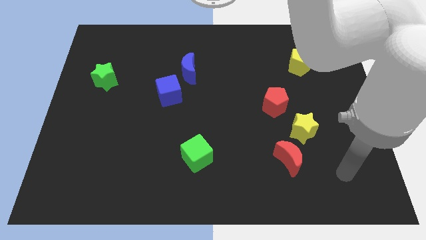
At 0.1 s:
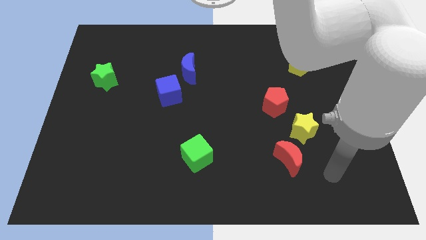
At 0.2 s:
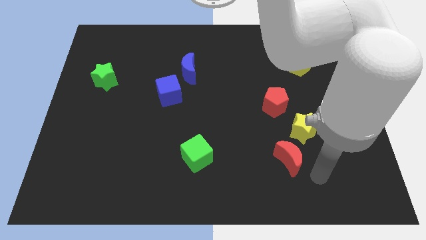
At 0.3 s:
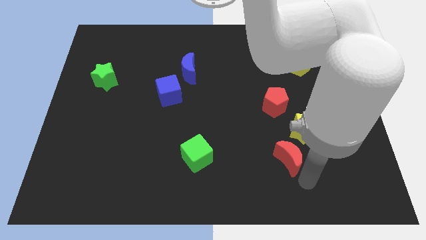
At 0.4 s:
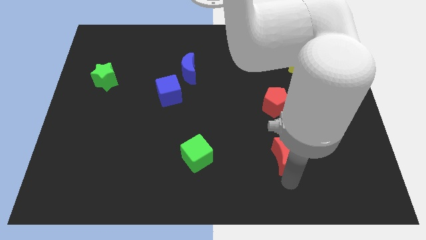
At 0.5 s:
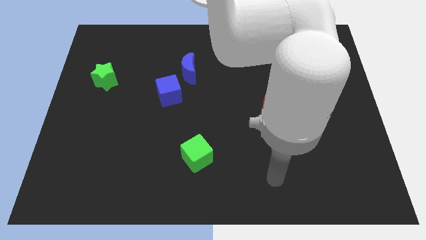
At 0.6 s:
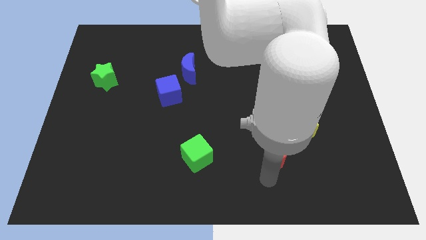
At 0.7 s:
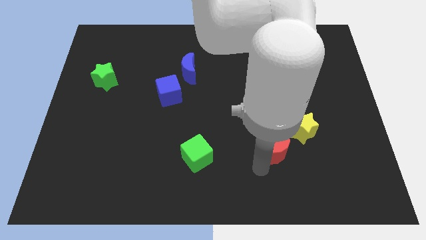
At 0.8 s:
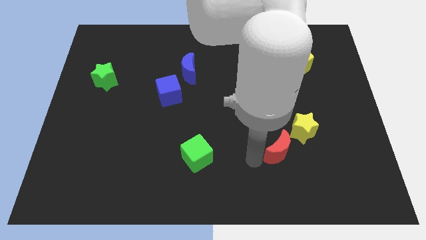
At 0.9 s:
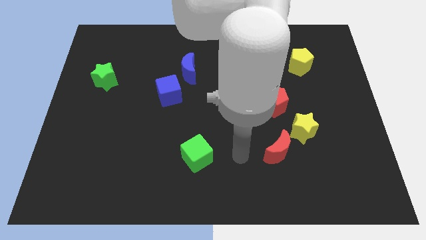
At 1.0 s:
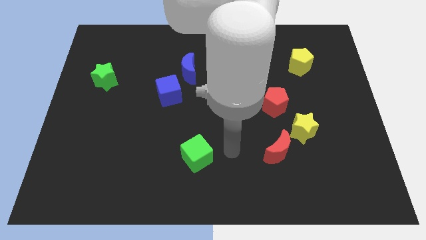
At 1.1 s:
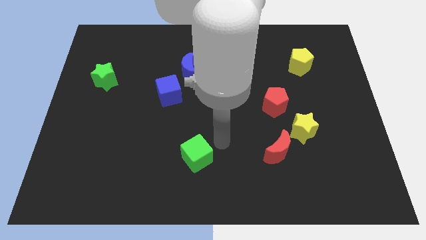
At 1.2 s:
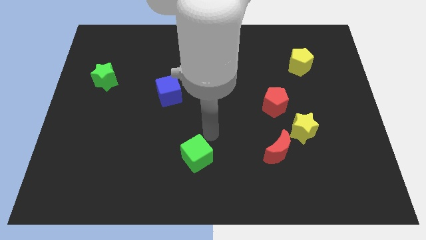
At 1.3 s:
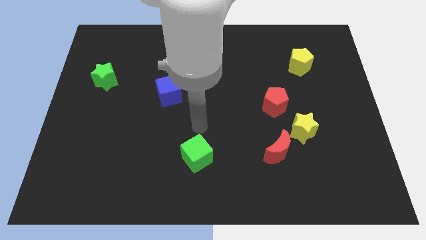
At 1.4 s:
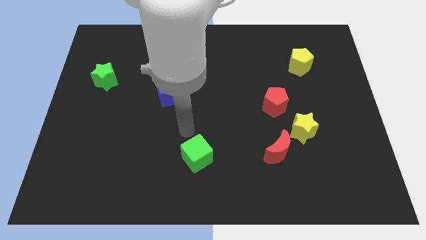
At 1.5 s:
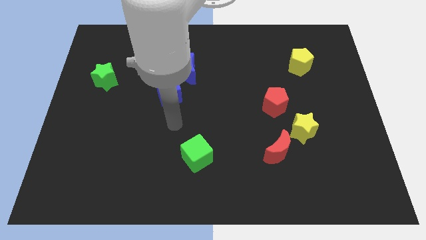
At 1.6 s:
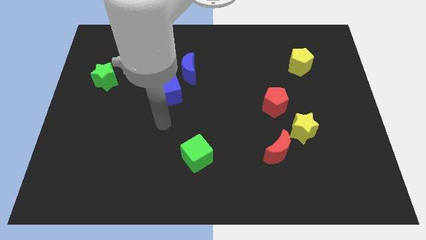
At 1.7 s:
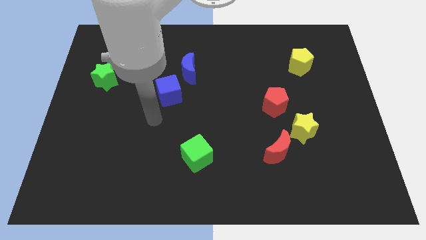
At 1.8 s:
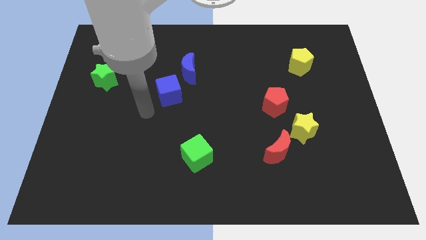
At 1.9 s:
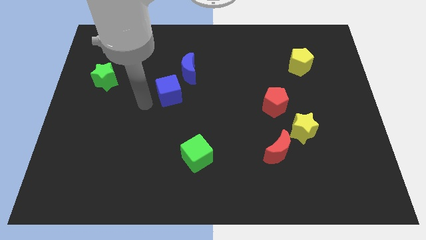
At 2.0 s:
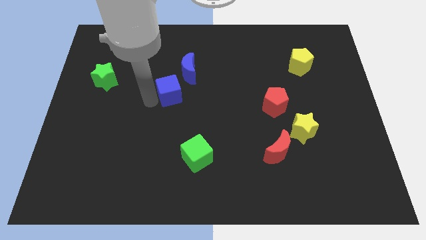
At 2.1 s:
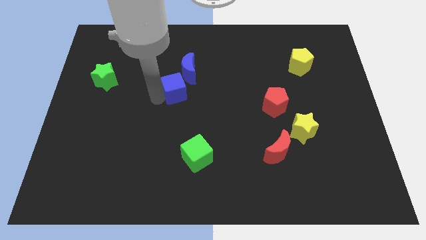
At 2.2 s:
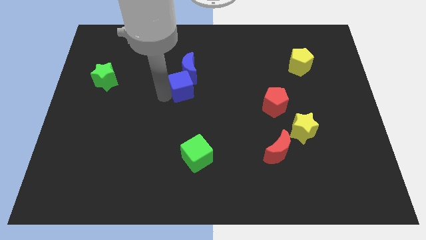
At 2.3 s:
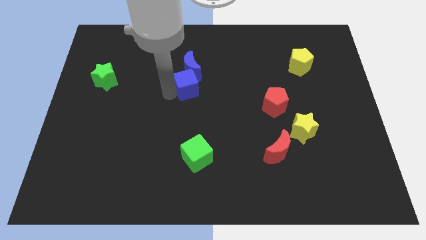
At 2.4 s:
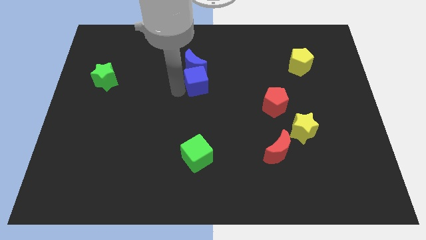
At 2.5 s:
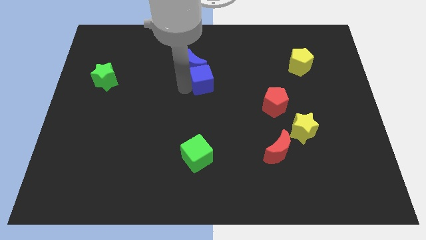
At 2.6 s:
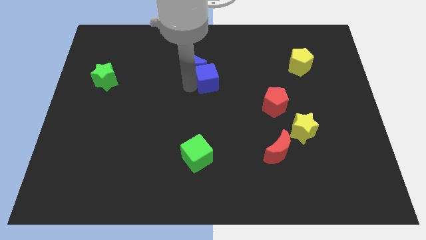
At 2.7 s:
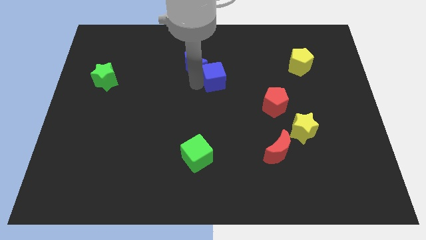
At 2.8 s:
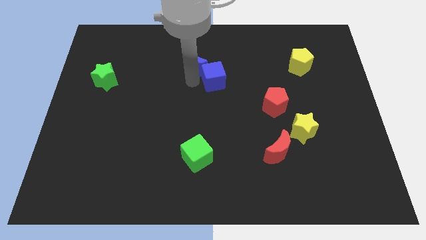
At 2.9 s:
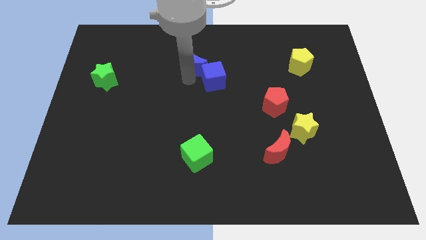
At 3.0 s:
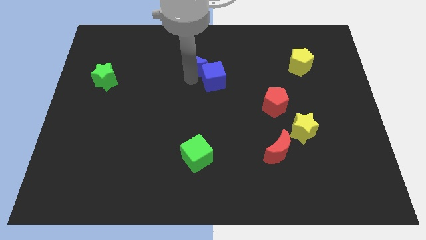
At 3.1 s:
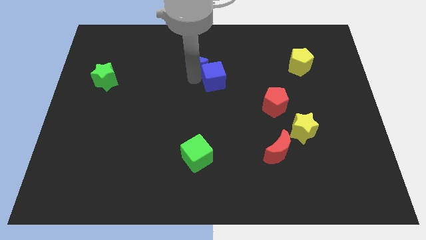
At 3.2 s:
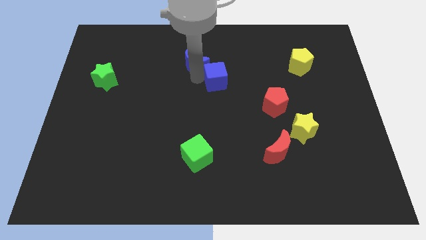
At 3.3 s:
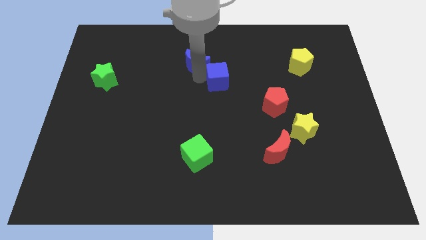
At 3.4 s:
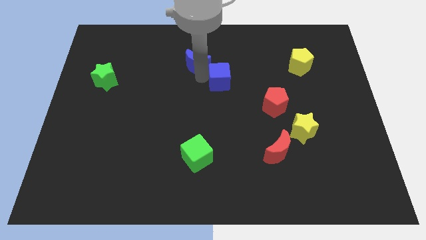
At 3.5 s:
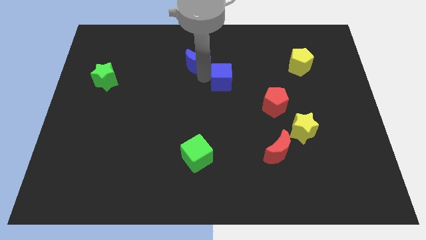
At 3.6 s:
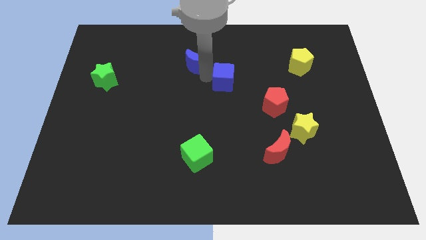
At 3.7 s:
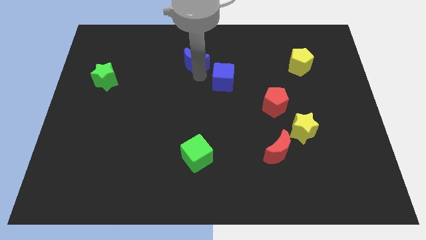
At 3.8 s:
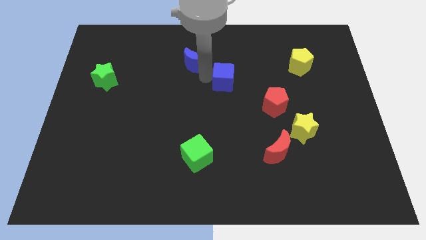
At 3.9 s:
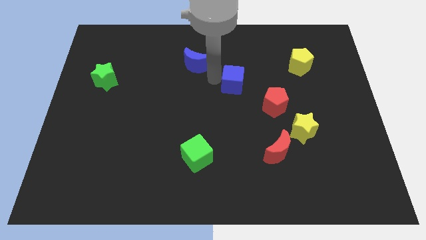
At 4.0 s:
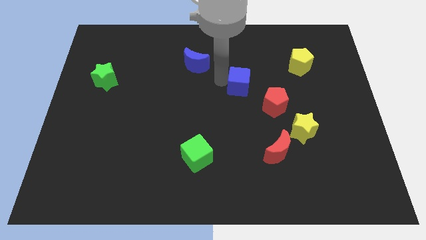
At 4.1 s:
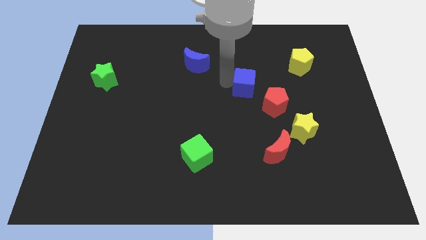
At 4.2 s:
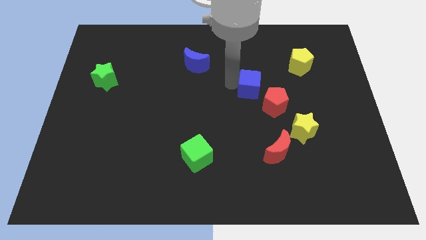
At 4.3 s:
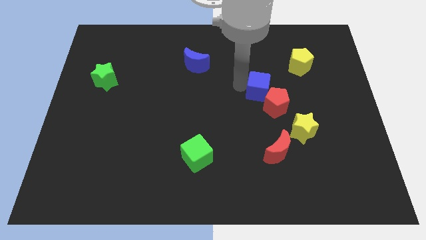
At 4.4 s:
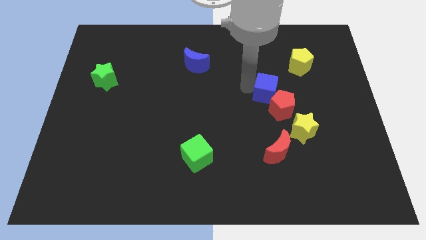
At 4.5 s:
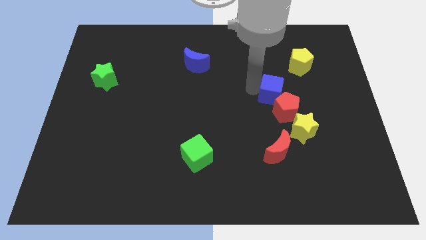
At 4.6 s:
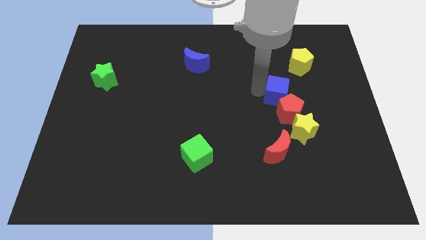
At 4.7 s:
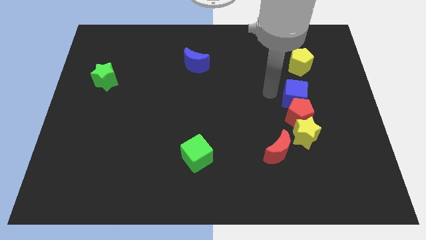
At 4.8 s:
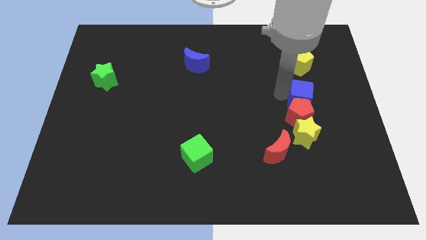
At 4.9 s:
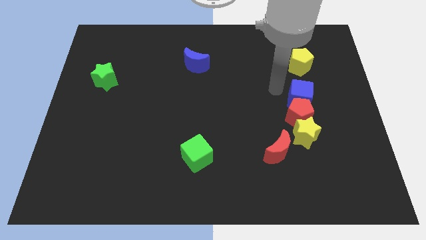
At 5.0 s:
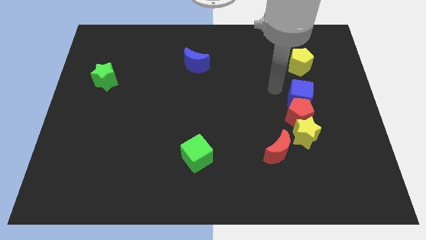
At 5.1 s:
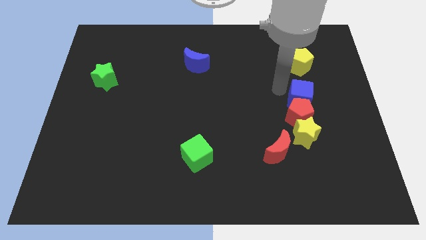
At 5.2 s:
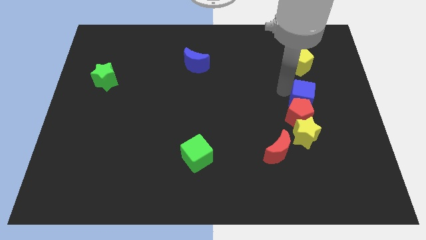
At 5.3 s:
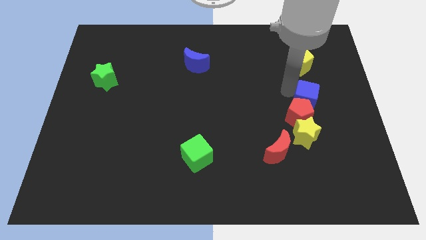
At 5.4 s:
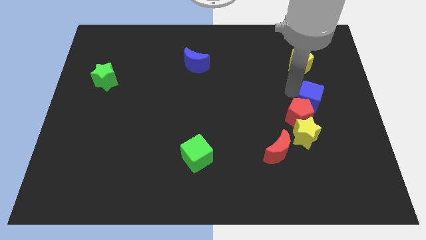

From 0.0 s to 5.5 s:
slide the blue cube right of the red pentagon
